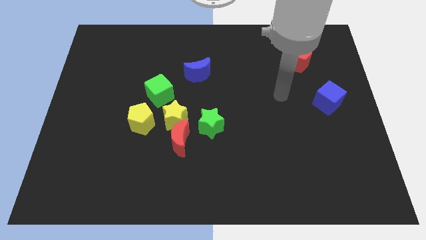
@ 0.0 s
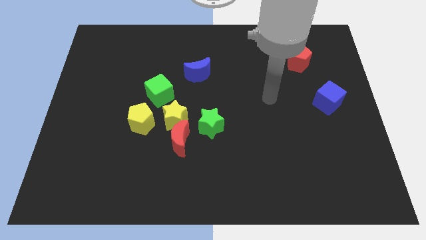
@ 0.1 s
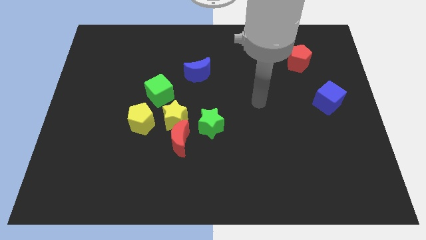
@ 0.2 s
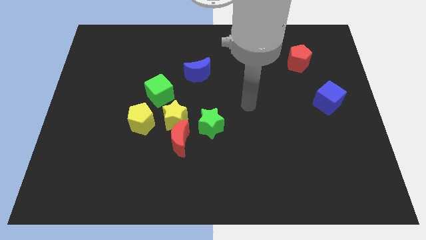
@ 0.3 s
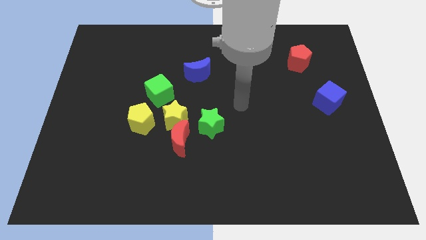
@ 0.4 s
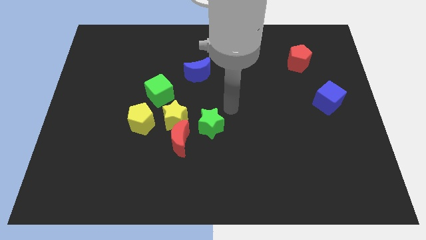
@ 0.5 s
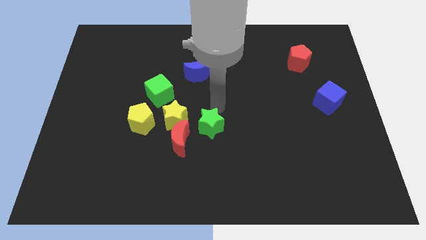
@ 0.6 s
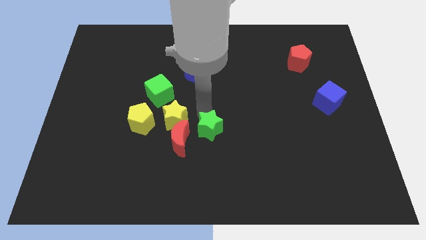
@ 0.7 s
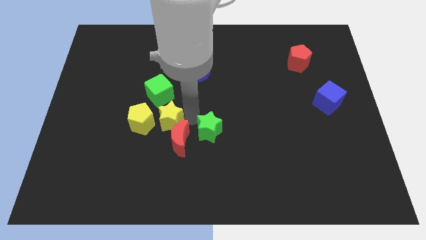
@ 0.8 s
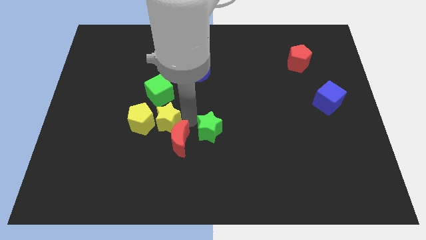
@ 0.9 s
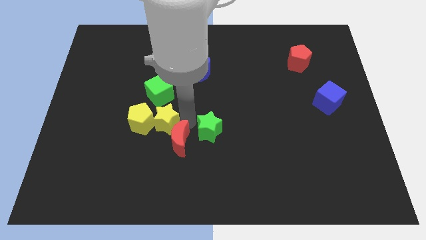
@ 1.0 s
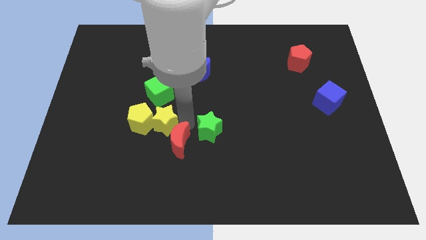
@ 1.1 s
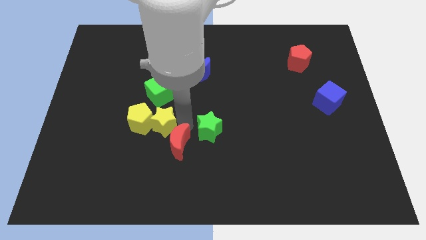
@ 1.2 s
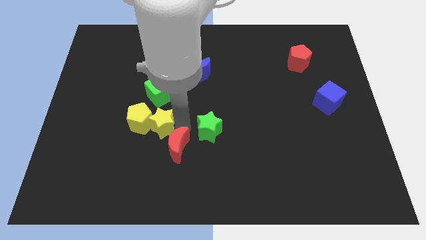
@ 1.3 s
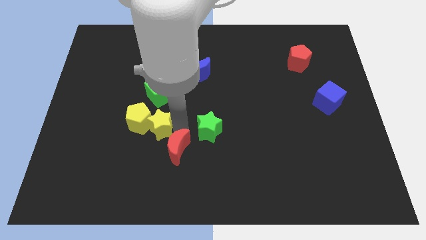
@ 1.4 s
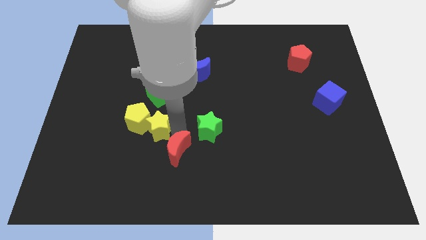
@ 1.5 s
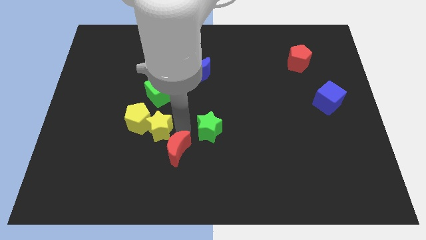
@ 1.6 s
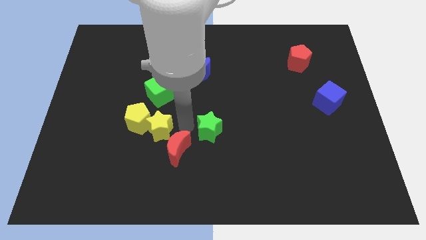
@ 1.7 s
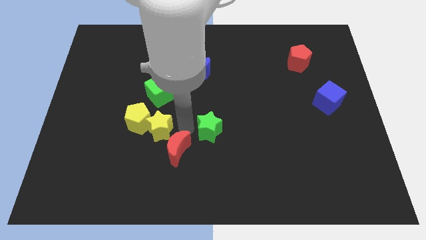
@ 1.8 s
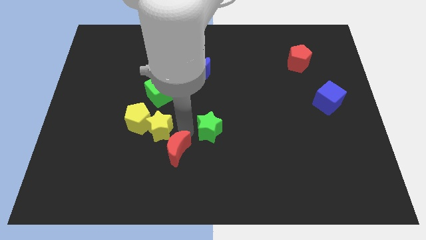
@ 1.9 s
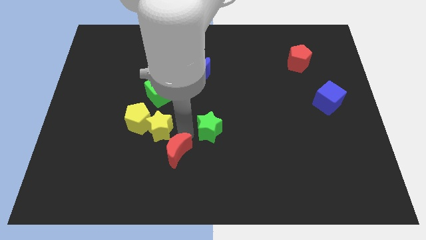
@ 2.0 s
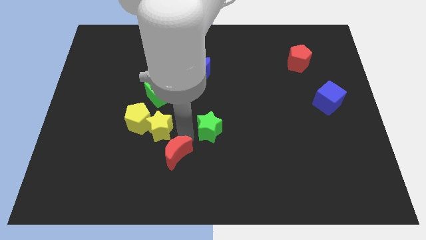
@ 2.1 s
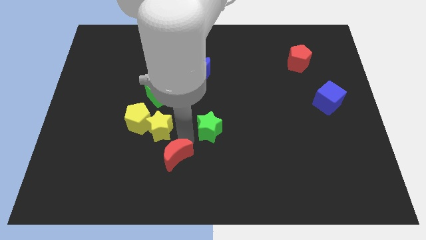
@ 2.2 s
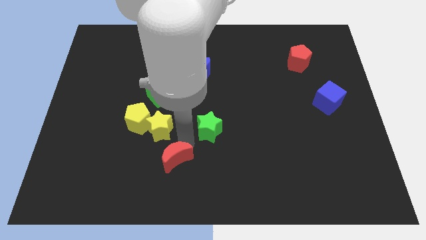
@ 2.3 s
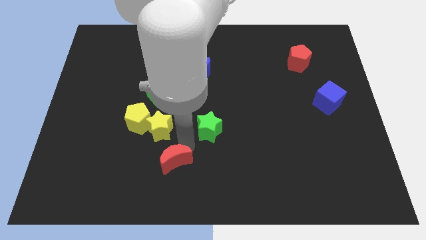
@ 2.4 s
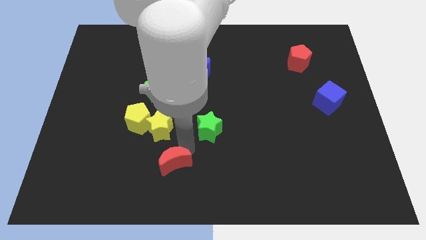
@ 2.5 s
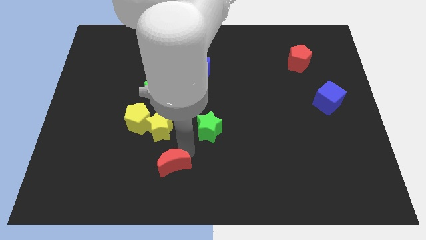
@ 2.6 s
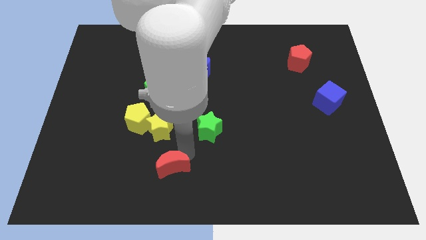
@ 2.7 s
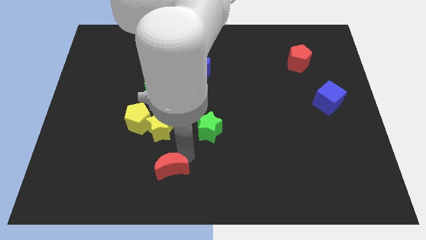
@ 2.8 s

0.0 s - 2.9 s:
pull the red moon apart from the yellow star and green star

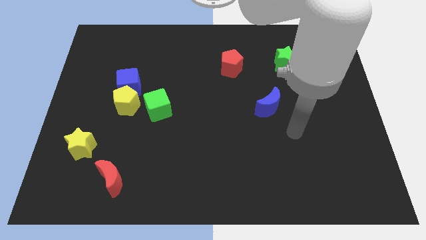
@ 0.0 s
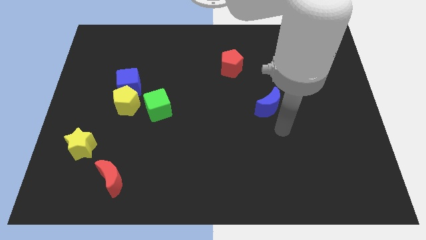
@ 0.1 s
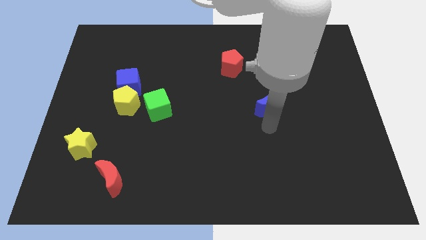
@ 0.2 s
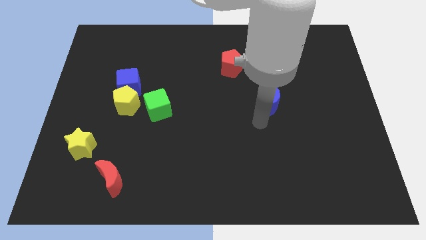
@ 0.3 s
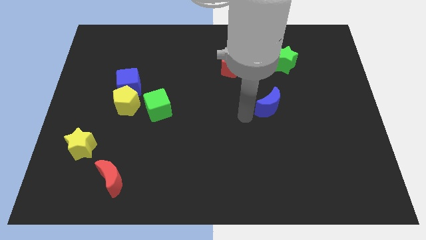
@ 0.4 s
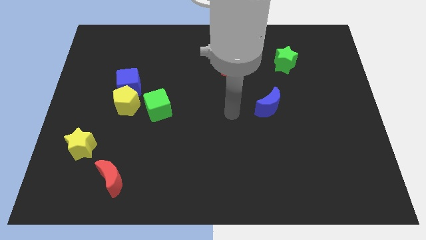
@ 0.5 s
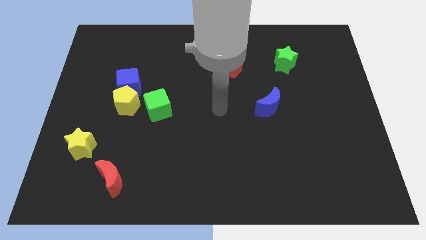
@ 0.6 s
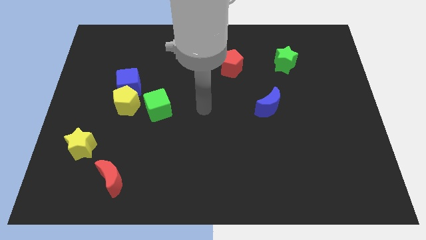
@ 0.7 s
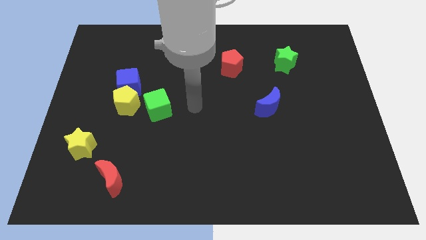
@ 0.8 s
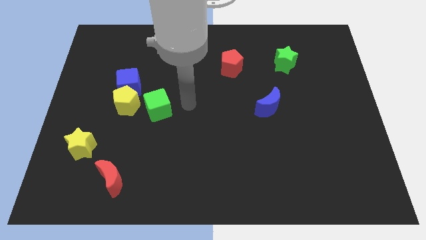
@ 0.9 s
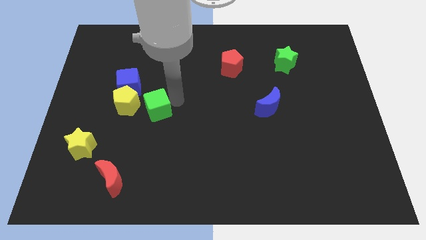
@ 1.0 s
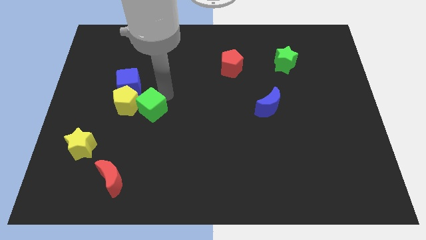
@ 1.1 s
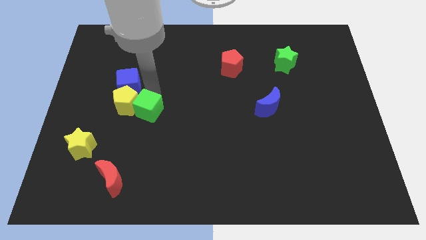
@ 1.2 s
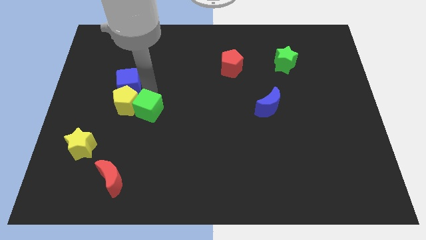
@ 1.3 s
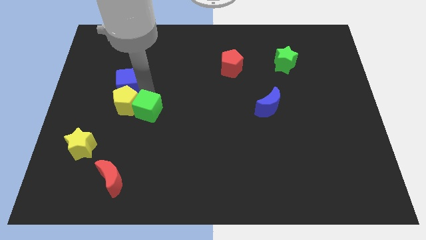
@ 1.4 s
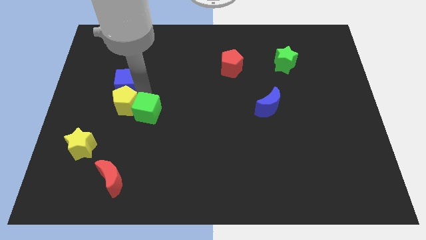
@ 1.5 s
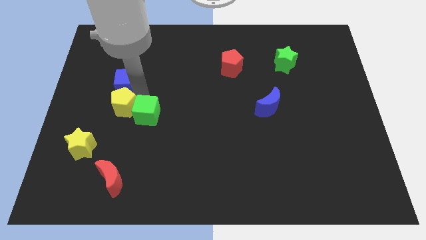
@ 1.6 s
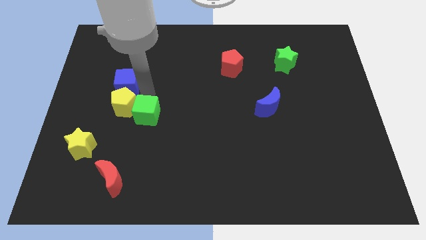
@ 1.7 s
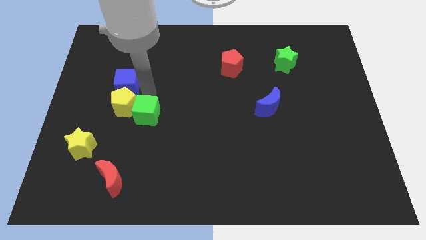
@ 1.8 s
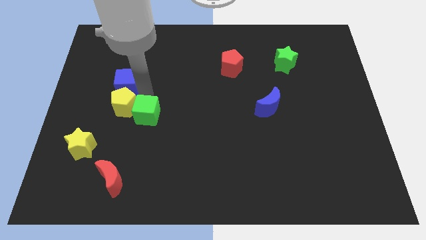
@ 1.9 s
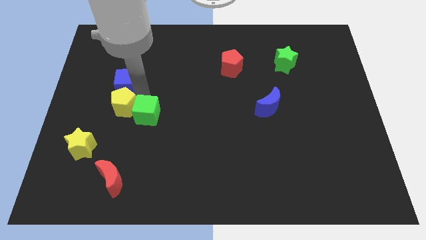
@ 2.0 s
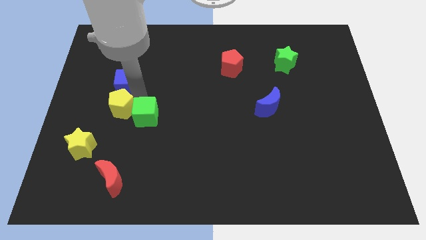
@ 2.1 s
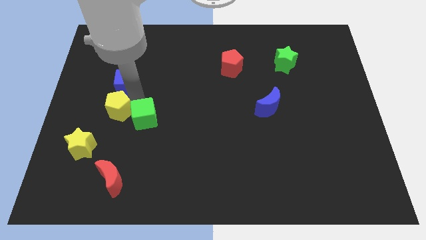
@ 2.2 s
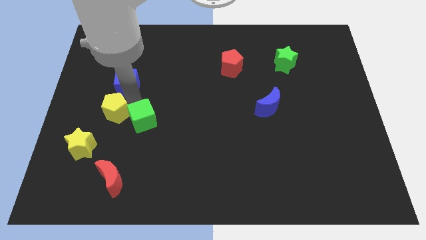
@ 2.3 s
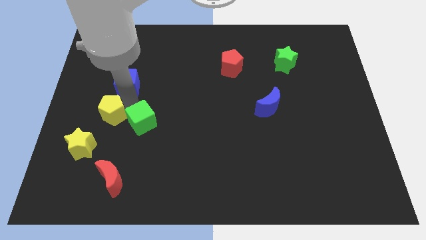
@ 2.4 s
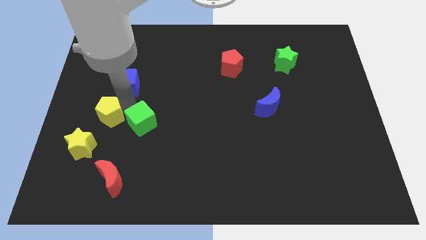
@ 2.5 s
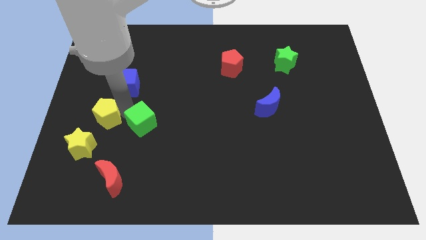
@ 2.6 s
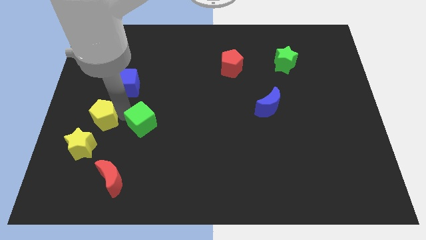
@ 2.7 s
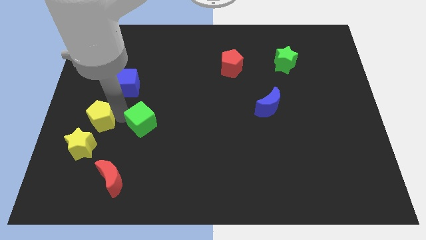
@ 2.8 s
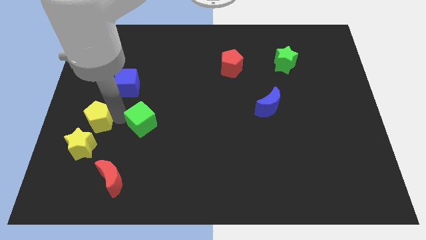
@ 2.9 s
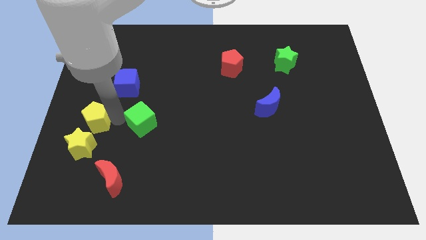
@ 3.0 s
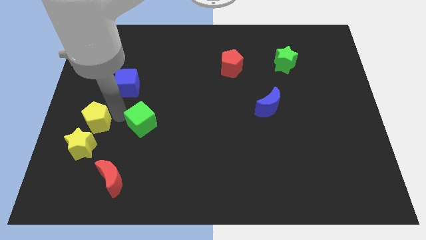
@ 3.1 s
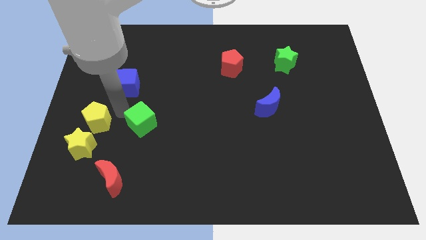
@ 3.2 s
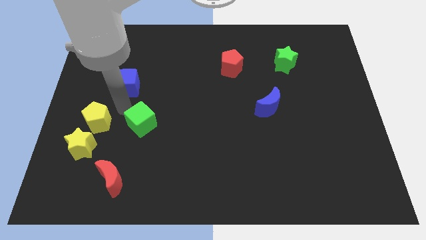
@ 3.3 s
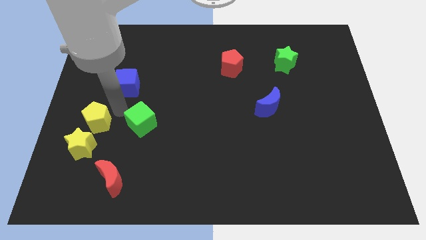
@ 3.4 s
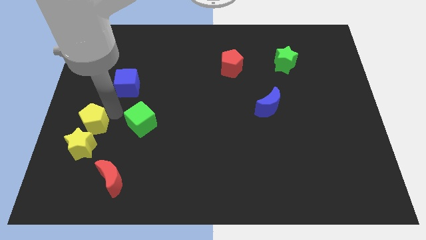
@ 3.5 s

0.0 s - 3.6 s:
move the yellow pentagon away from the blue cube and green cube

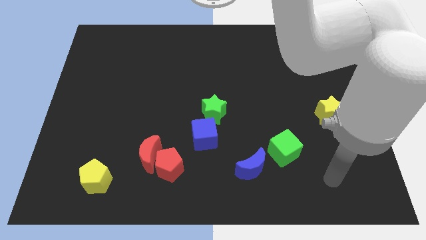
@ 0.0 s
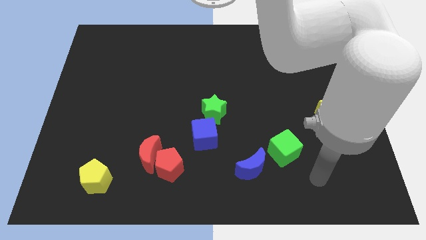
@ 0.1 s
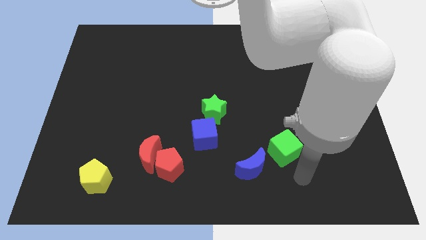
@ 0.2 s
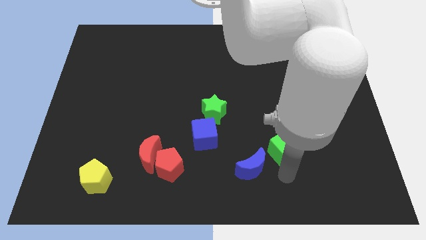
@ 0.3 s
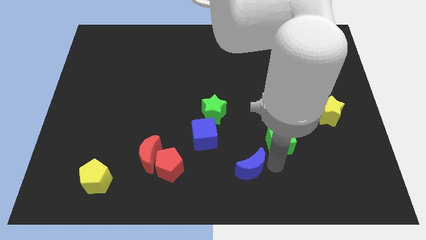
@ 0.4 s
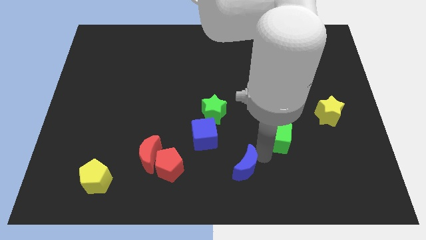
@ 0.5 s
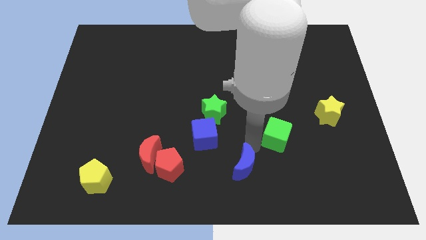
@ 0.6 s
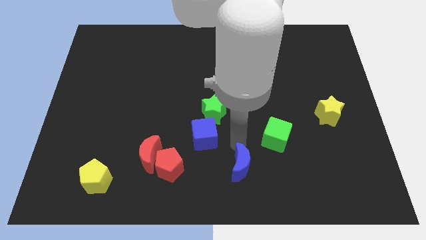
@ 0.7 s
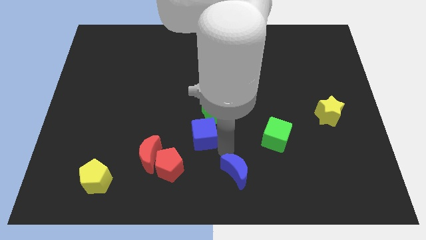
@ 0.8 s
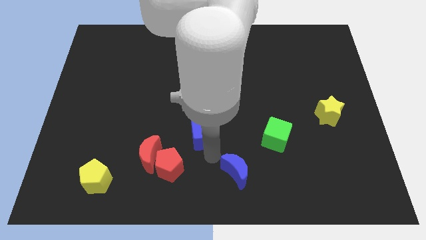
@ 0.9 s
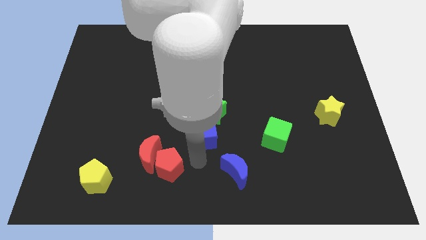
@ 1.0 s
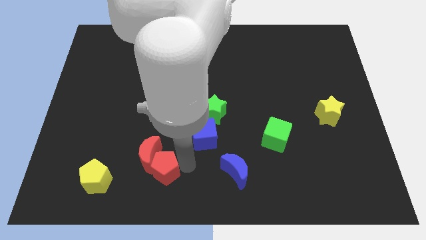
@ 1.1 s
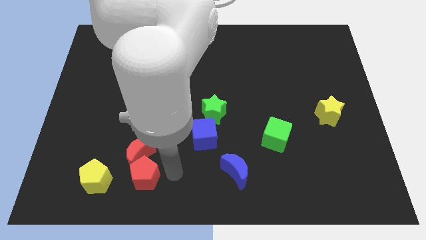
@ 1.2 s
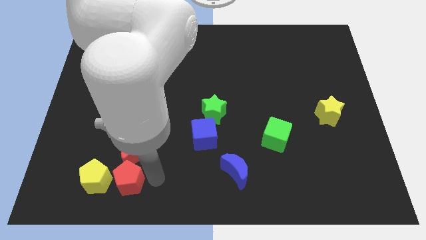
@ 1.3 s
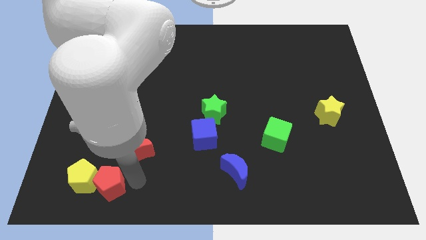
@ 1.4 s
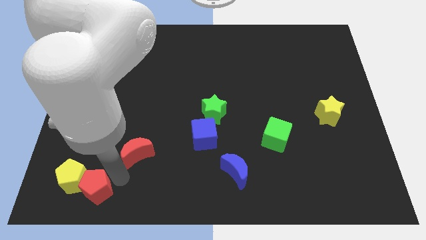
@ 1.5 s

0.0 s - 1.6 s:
separate the red moon from the red pentagon

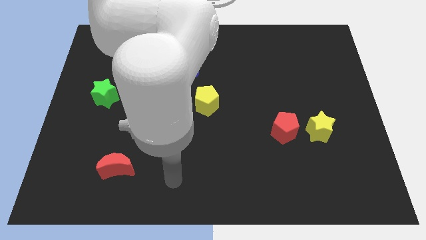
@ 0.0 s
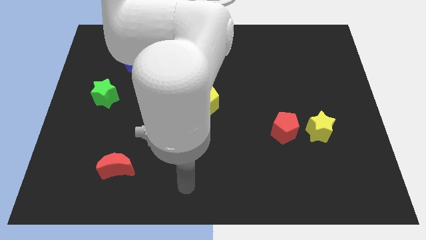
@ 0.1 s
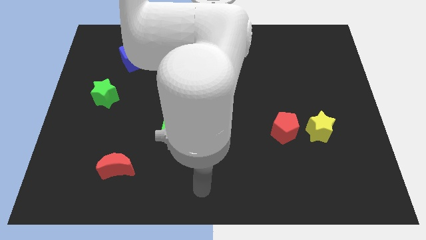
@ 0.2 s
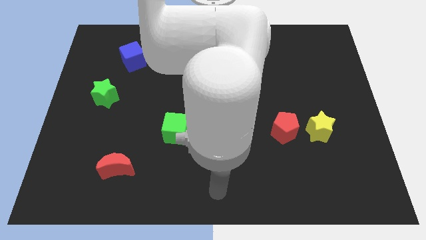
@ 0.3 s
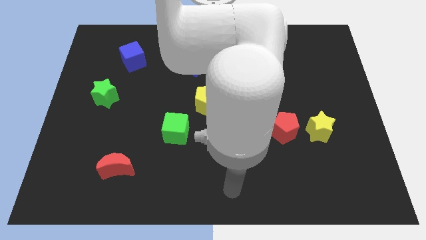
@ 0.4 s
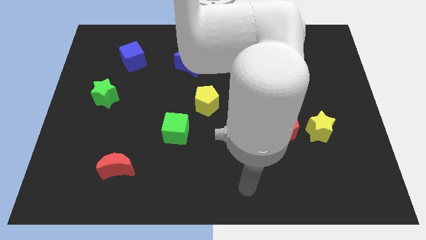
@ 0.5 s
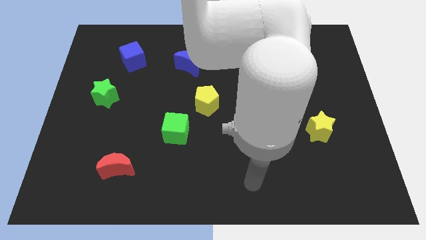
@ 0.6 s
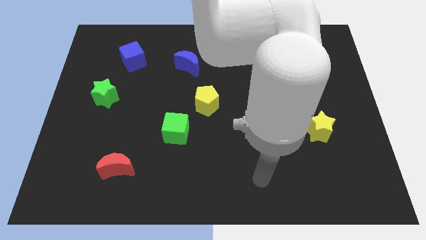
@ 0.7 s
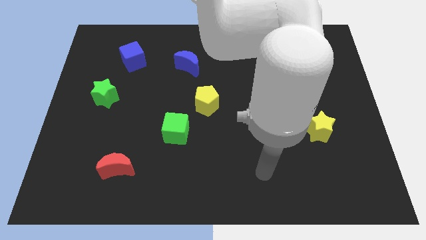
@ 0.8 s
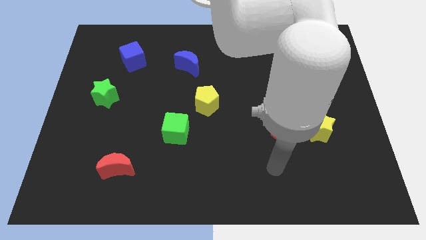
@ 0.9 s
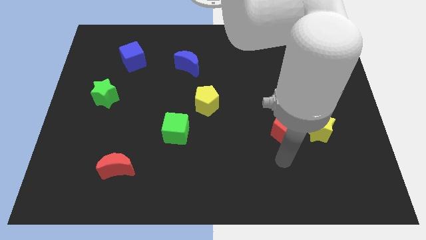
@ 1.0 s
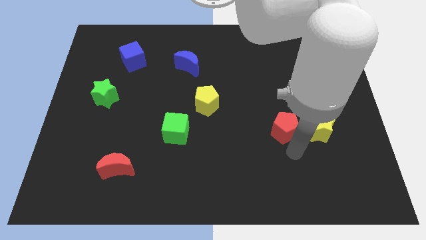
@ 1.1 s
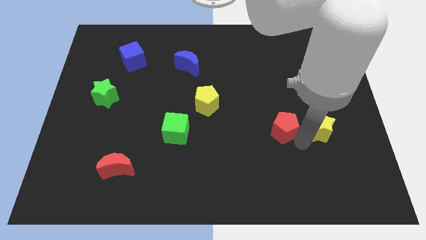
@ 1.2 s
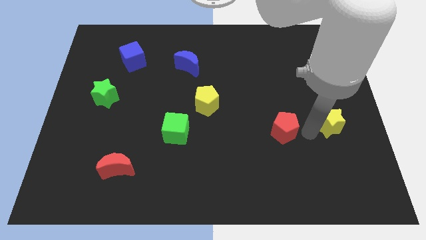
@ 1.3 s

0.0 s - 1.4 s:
move the red pentagon away from the yellow star
